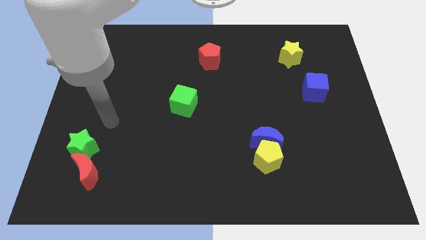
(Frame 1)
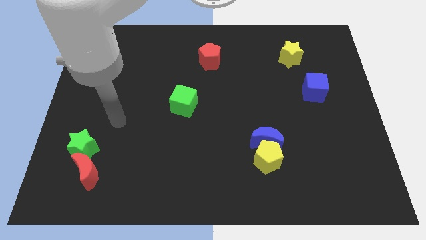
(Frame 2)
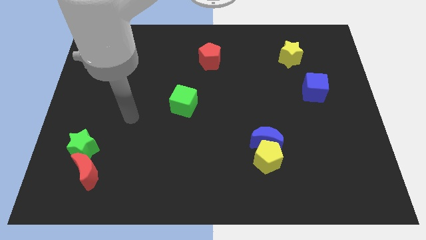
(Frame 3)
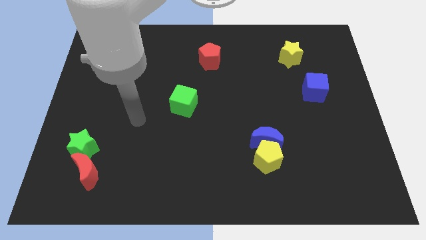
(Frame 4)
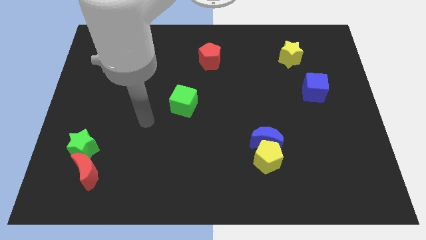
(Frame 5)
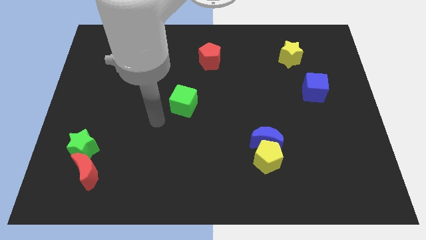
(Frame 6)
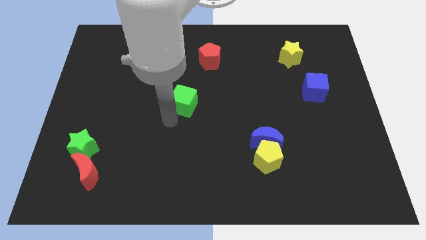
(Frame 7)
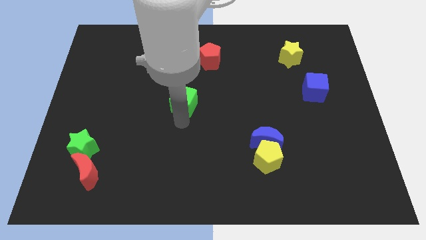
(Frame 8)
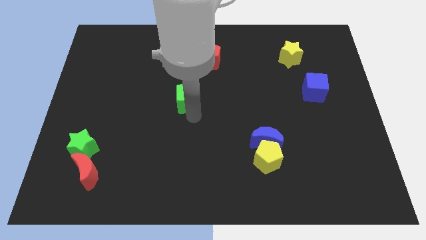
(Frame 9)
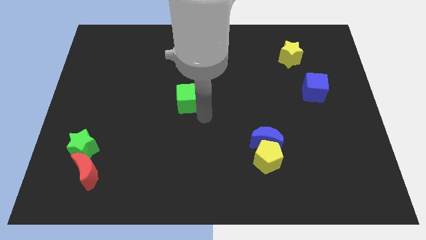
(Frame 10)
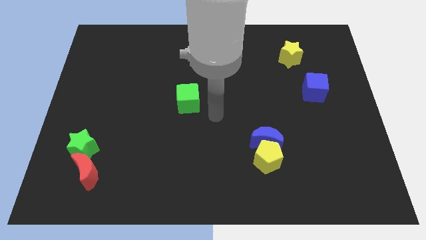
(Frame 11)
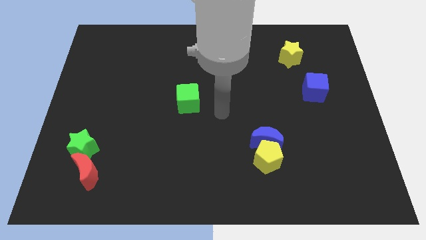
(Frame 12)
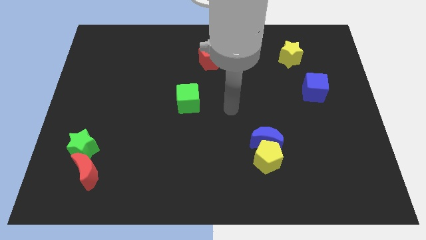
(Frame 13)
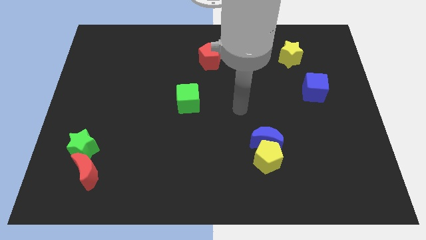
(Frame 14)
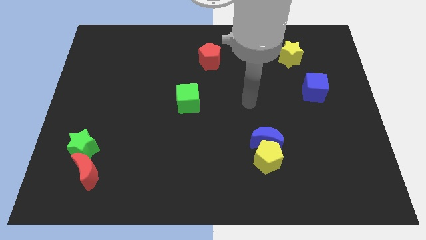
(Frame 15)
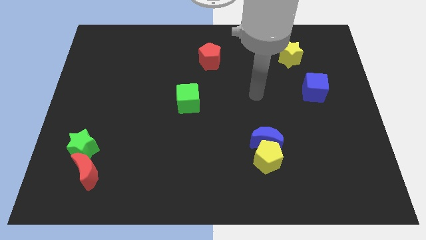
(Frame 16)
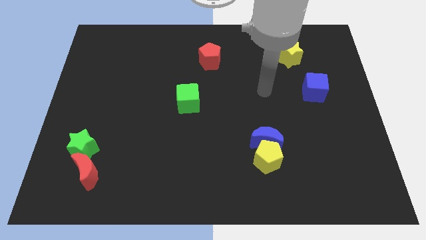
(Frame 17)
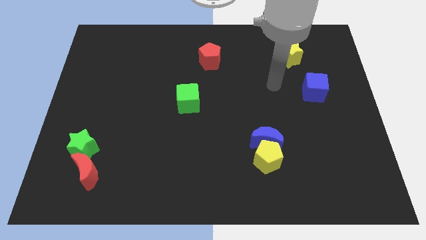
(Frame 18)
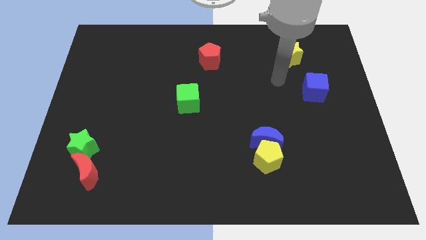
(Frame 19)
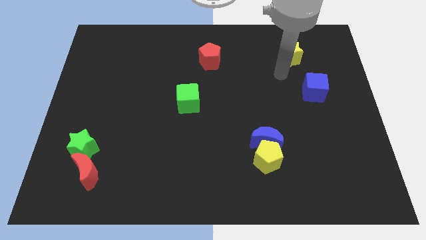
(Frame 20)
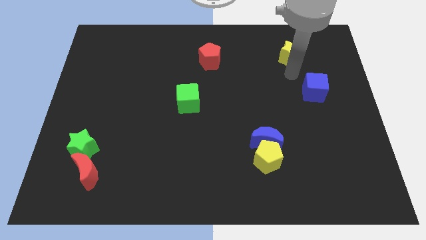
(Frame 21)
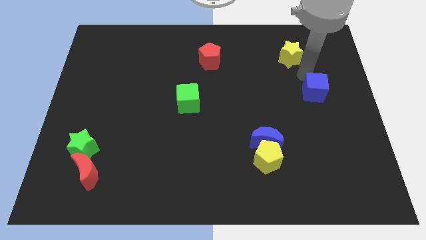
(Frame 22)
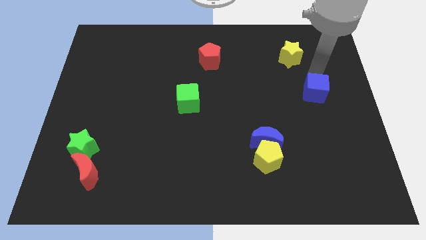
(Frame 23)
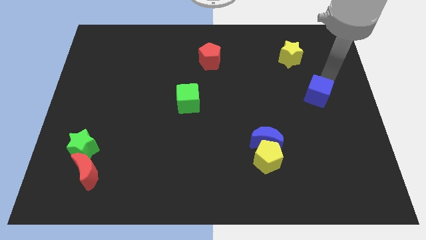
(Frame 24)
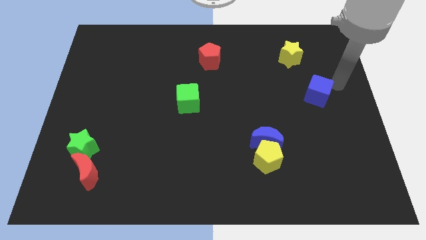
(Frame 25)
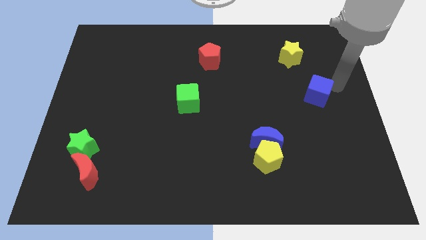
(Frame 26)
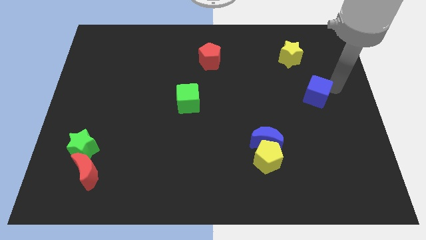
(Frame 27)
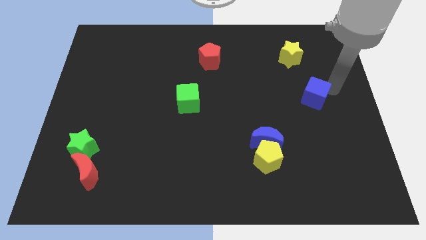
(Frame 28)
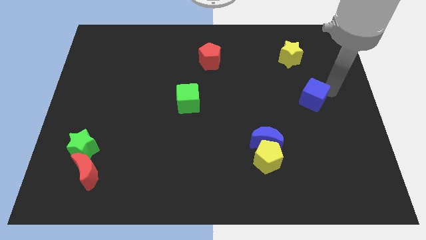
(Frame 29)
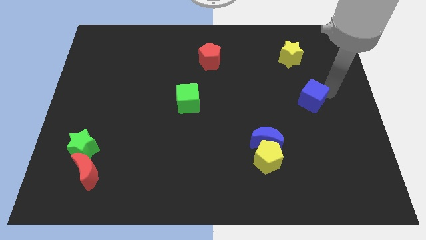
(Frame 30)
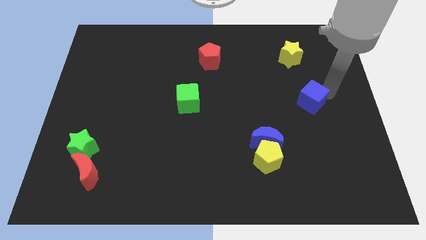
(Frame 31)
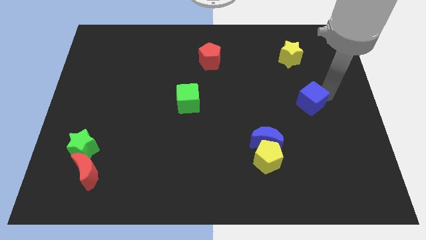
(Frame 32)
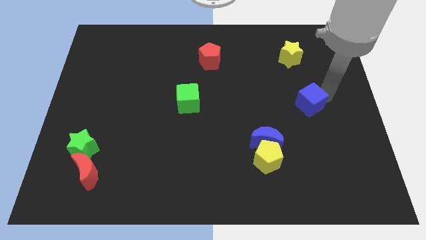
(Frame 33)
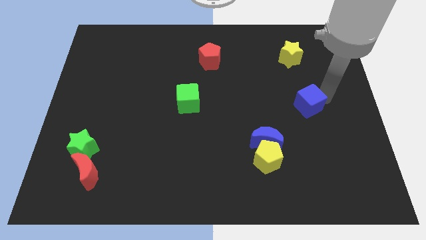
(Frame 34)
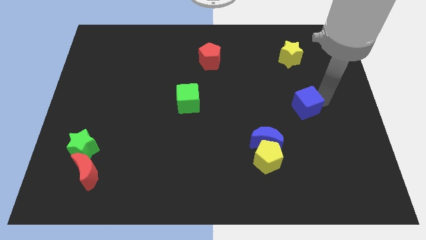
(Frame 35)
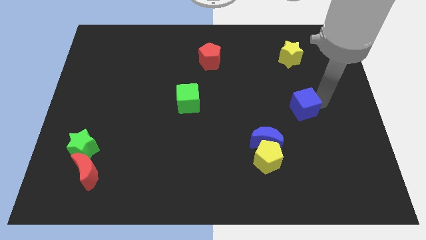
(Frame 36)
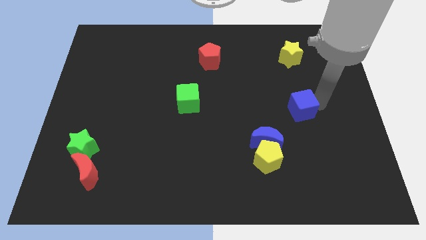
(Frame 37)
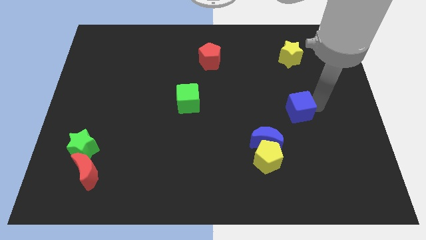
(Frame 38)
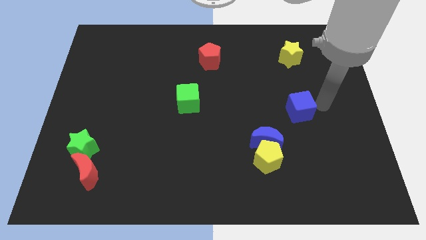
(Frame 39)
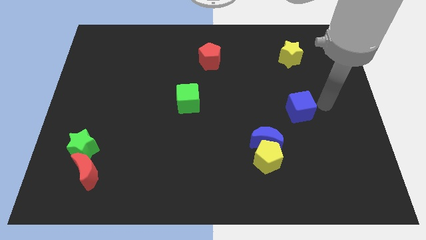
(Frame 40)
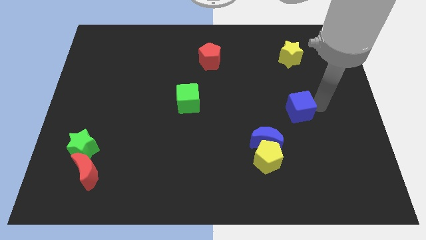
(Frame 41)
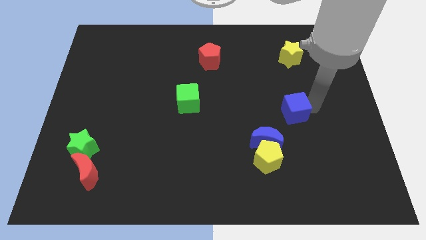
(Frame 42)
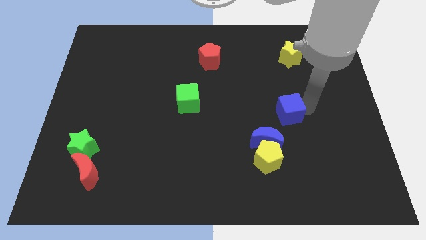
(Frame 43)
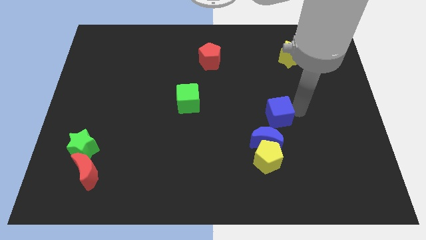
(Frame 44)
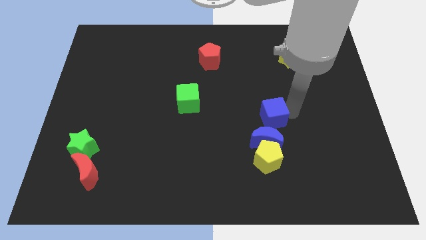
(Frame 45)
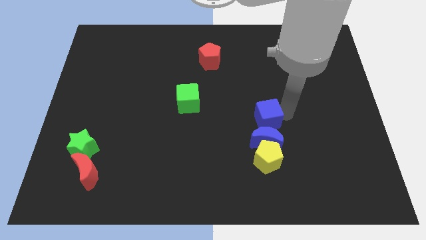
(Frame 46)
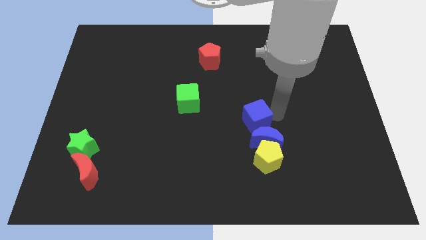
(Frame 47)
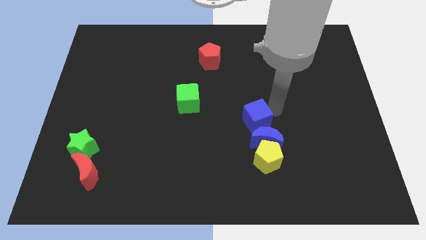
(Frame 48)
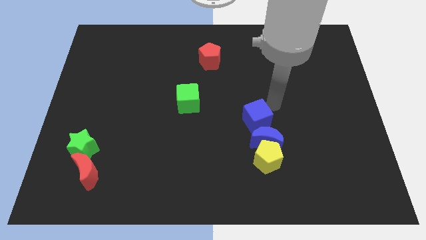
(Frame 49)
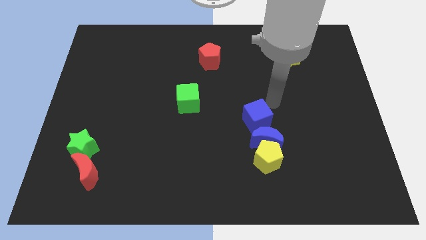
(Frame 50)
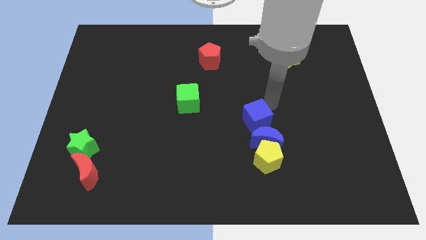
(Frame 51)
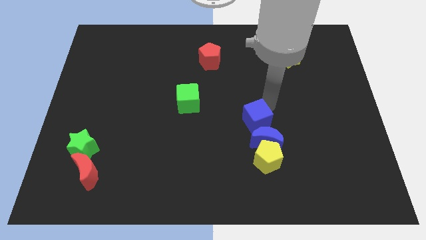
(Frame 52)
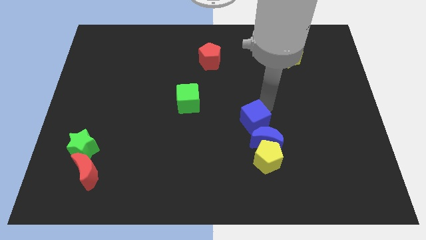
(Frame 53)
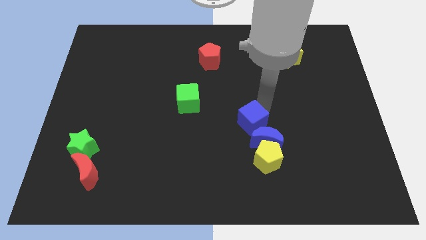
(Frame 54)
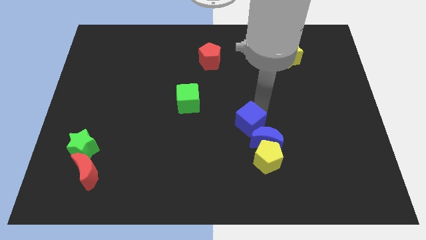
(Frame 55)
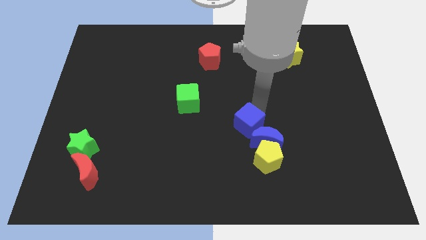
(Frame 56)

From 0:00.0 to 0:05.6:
put the blue cube just left of the blue moon

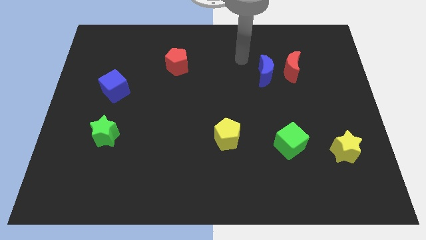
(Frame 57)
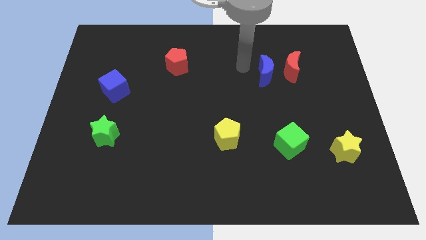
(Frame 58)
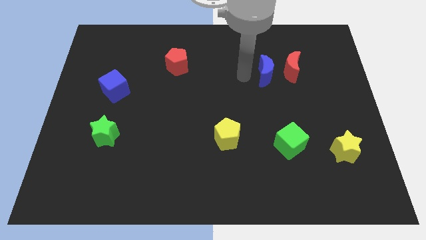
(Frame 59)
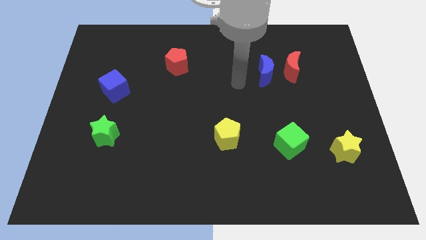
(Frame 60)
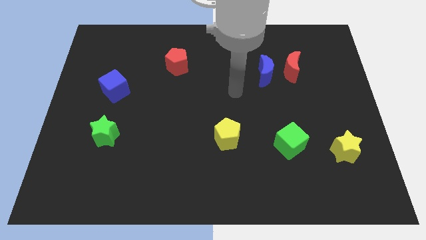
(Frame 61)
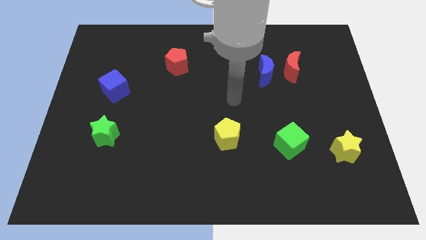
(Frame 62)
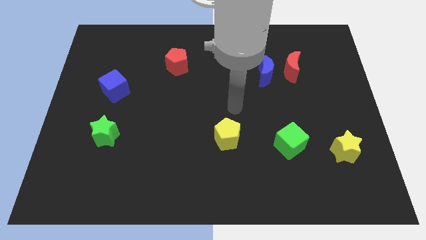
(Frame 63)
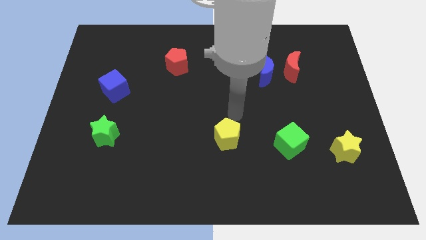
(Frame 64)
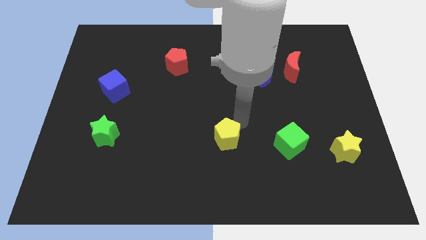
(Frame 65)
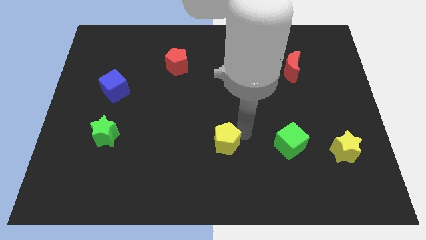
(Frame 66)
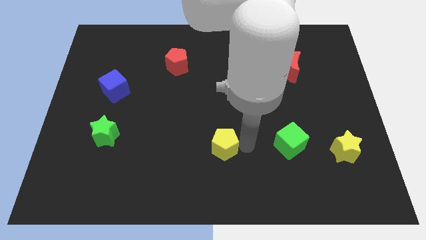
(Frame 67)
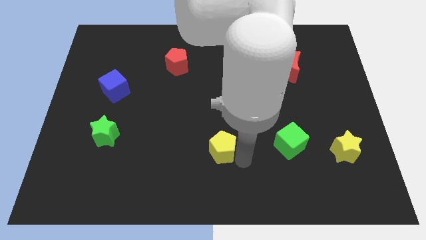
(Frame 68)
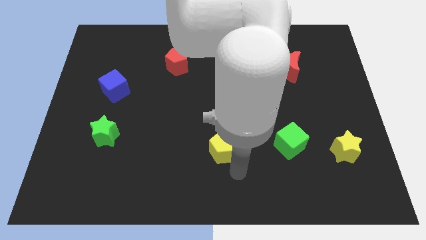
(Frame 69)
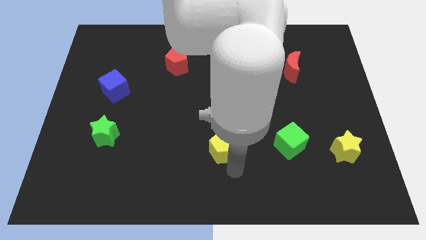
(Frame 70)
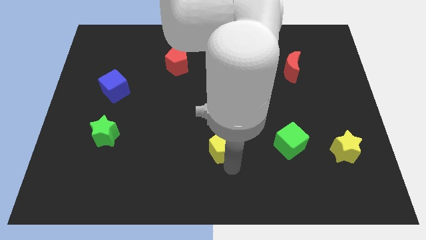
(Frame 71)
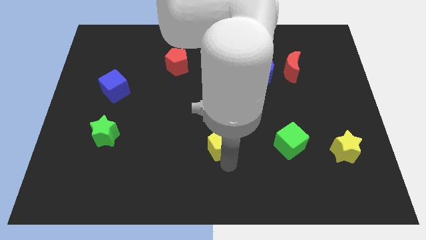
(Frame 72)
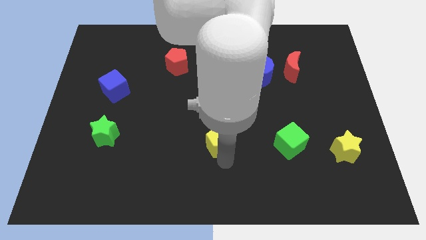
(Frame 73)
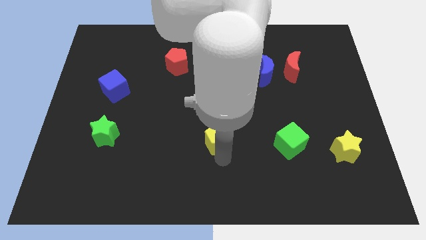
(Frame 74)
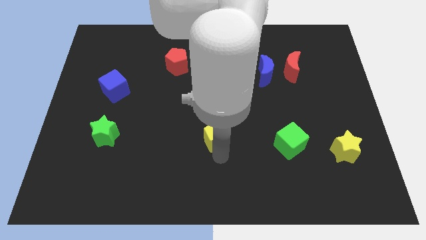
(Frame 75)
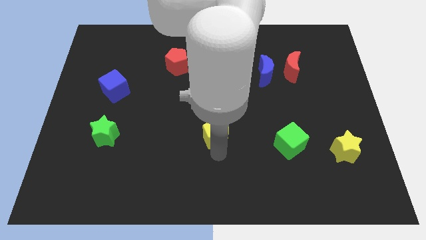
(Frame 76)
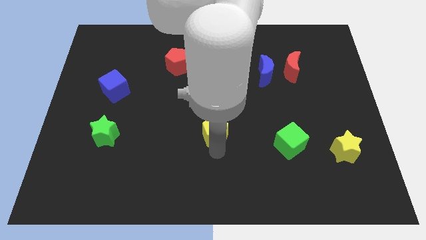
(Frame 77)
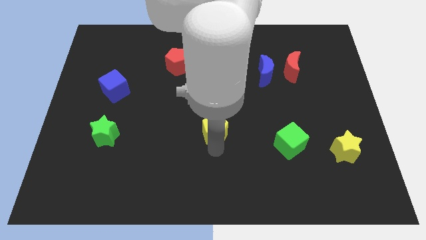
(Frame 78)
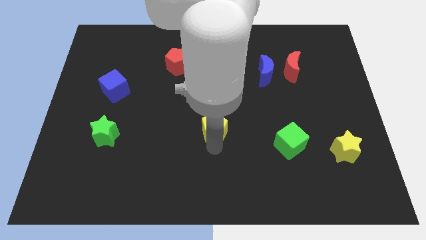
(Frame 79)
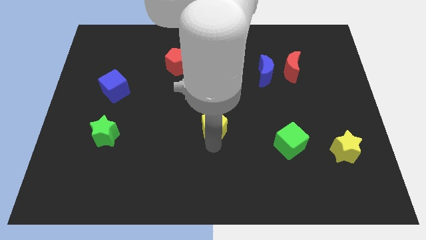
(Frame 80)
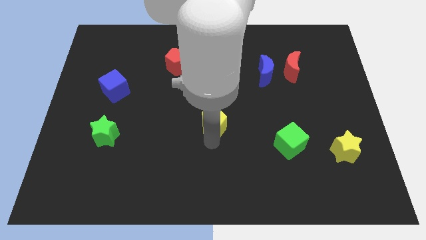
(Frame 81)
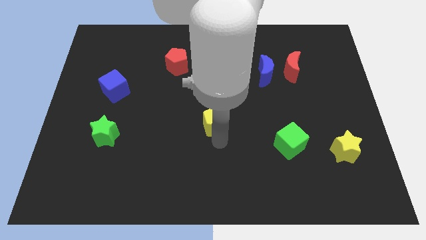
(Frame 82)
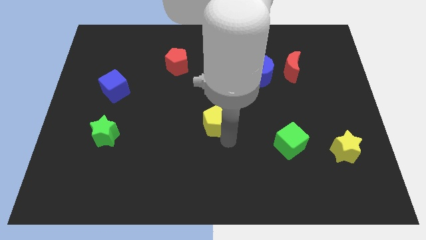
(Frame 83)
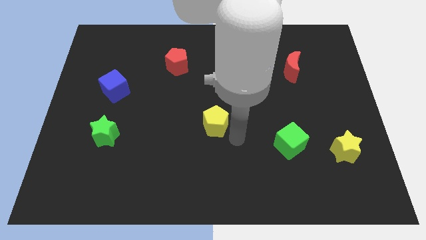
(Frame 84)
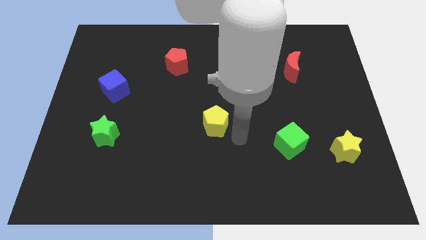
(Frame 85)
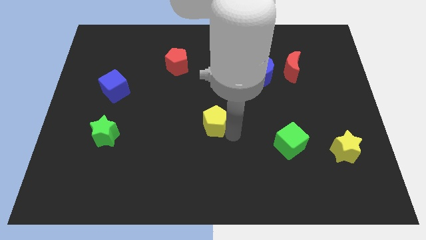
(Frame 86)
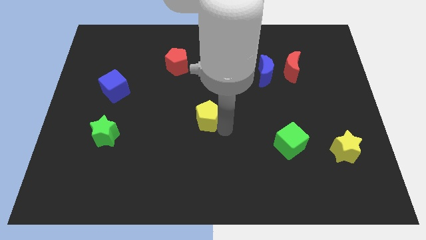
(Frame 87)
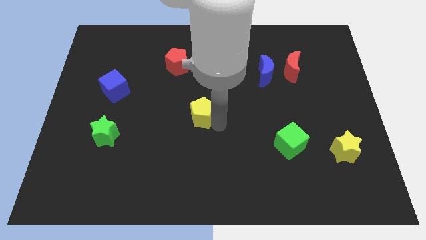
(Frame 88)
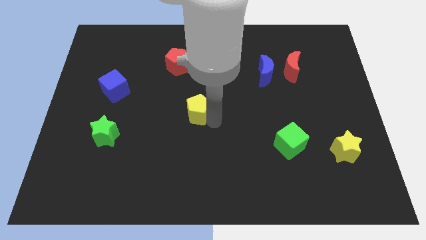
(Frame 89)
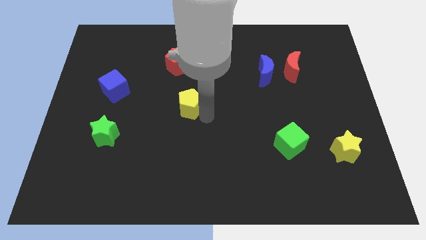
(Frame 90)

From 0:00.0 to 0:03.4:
push the yellow pentagon to the bottom of the red pentagon
